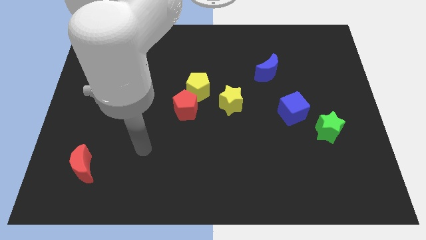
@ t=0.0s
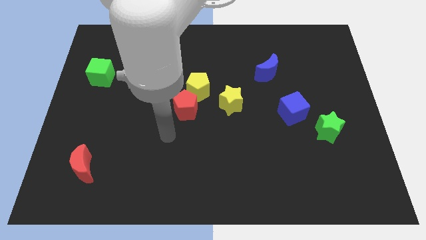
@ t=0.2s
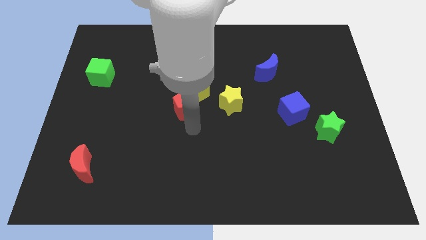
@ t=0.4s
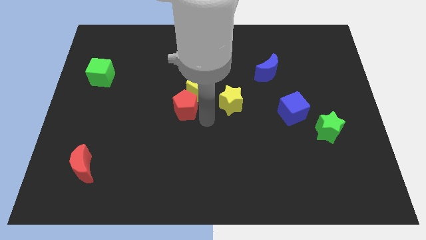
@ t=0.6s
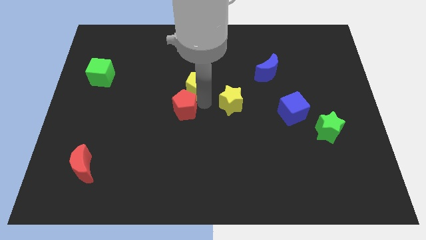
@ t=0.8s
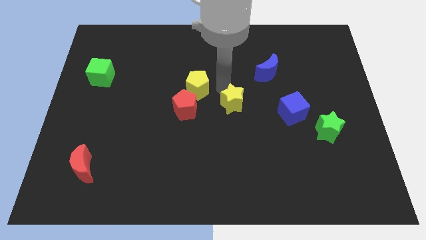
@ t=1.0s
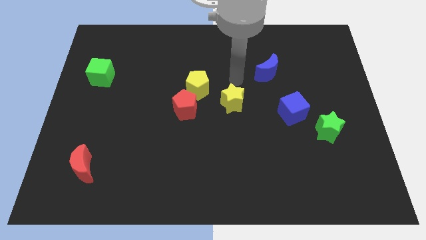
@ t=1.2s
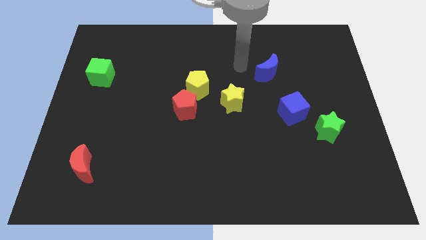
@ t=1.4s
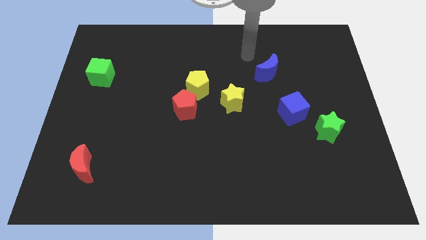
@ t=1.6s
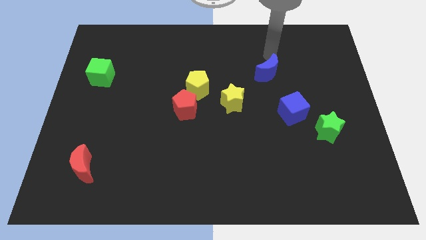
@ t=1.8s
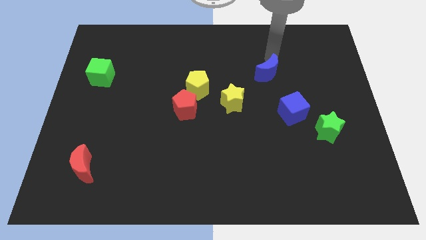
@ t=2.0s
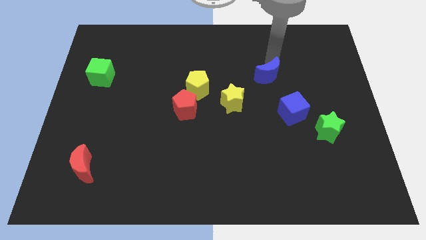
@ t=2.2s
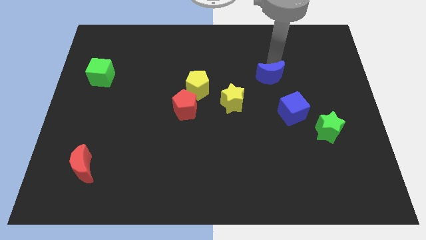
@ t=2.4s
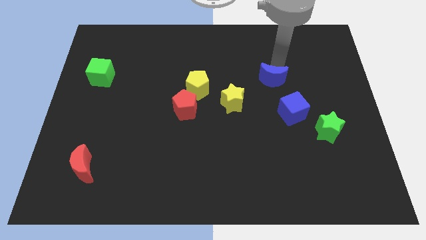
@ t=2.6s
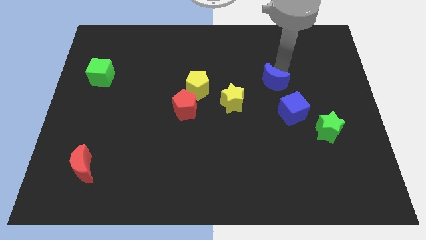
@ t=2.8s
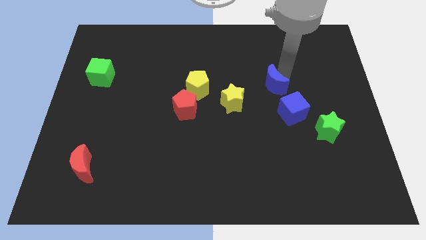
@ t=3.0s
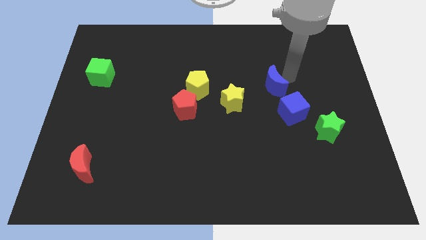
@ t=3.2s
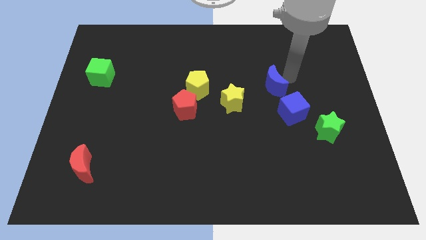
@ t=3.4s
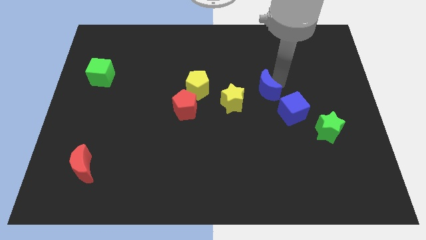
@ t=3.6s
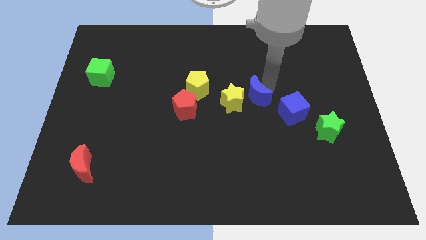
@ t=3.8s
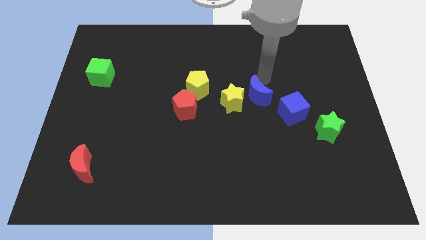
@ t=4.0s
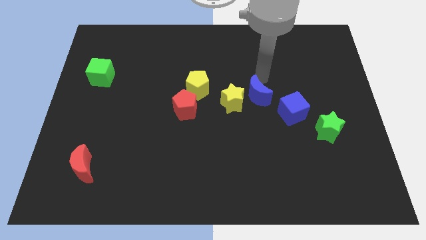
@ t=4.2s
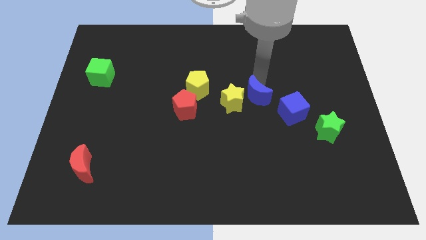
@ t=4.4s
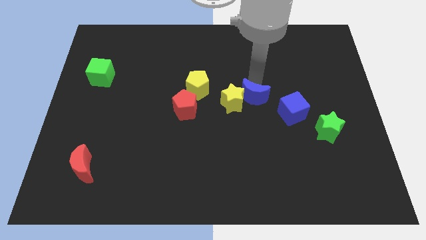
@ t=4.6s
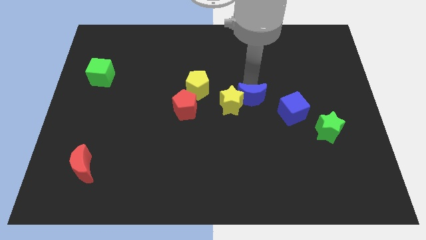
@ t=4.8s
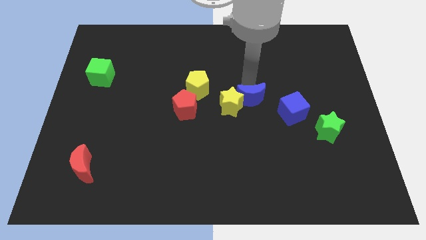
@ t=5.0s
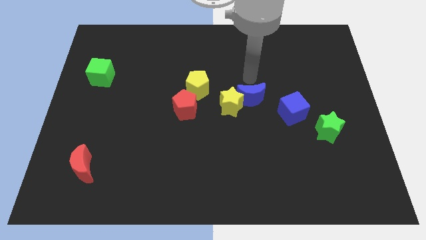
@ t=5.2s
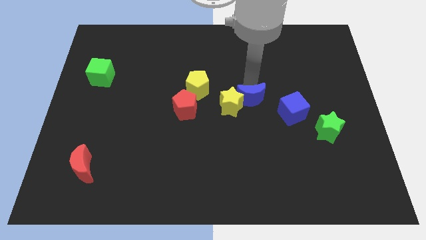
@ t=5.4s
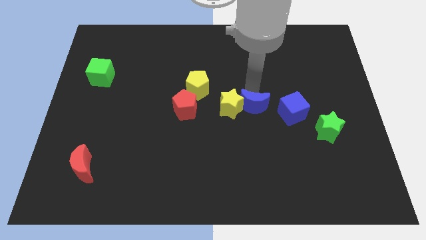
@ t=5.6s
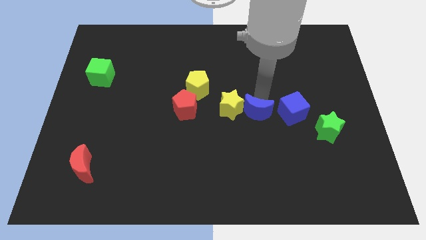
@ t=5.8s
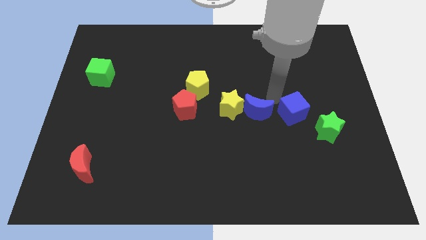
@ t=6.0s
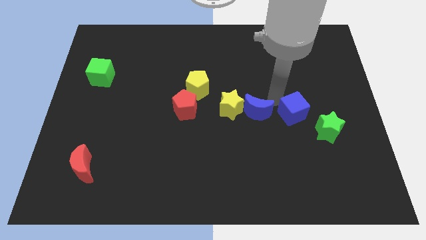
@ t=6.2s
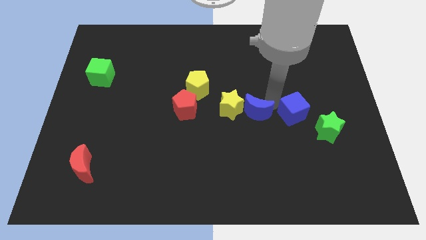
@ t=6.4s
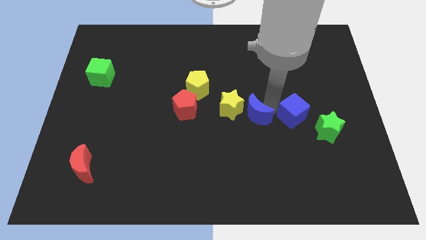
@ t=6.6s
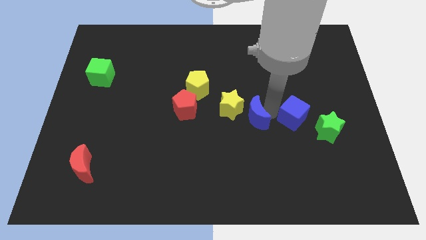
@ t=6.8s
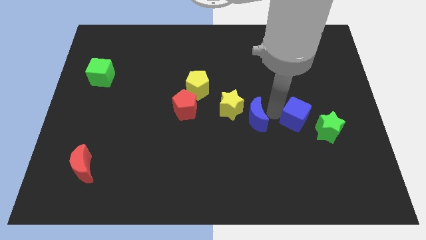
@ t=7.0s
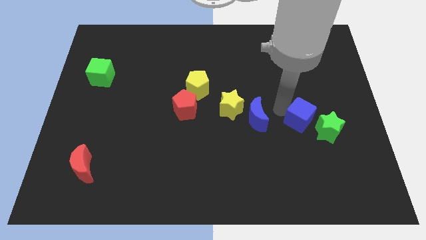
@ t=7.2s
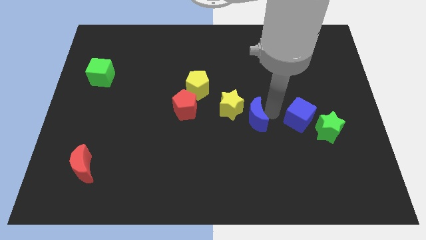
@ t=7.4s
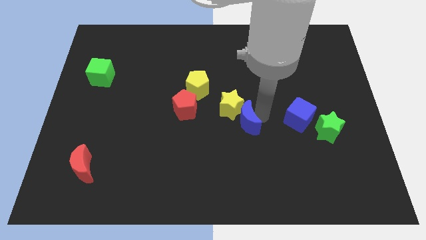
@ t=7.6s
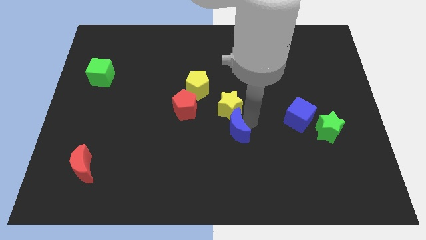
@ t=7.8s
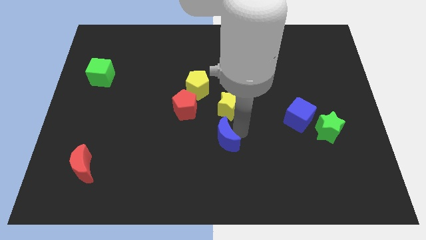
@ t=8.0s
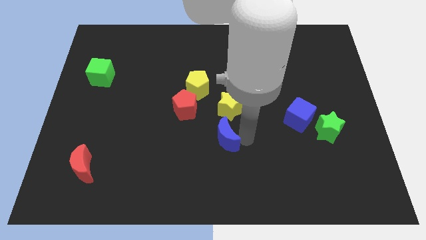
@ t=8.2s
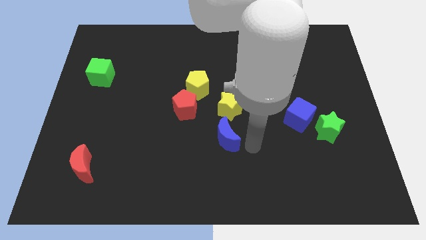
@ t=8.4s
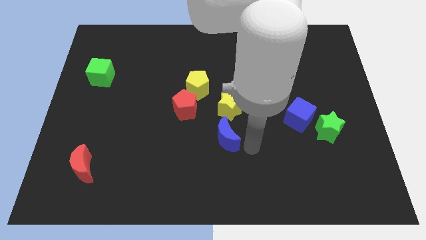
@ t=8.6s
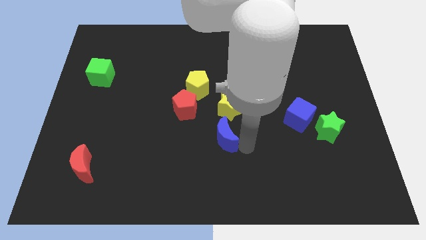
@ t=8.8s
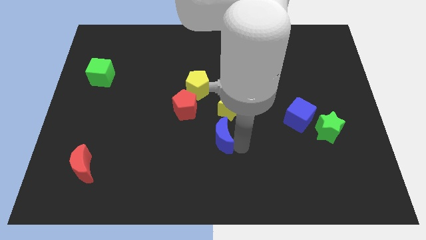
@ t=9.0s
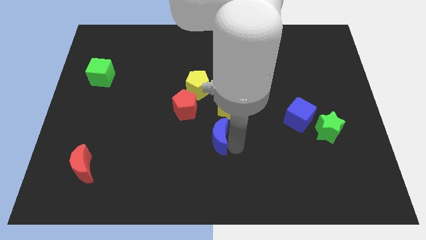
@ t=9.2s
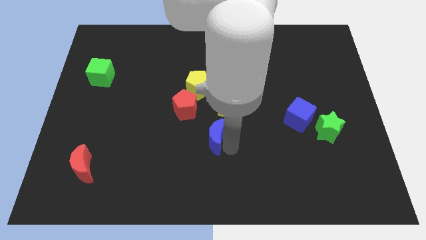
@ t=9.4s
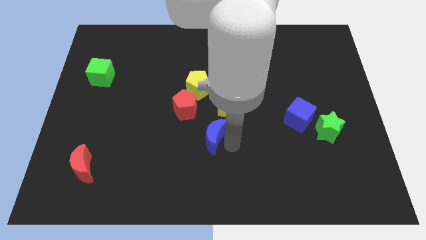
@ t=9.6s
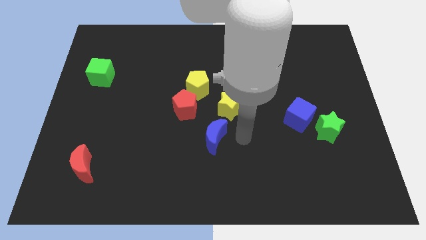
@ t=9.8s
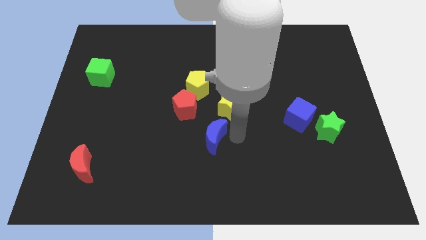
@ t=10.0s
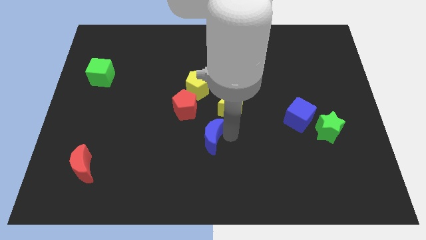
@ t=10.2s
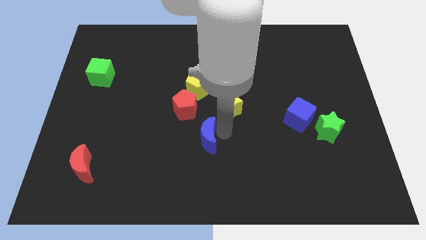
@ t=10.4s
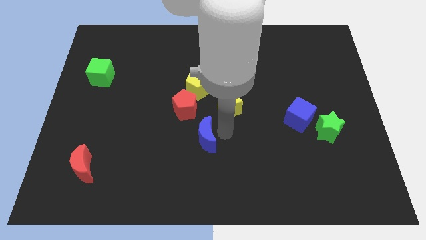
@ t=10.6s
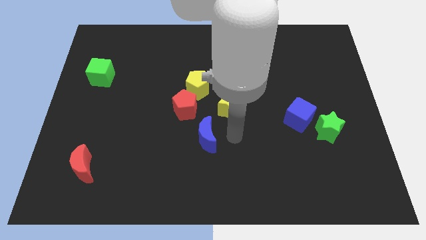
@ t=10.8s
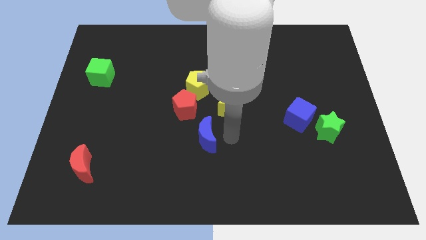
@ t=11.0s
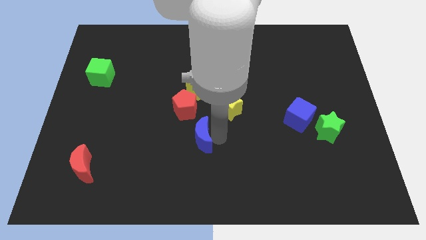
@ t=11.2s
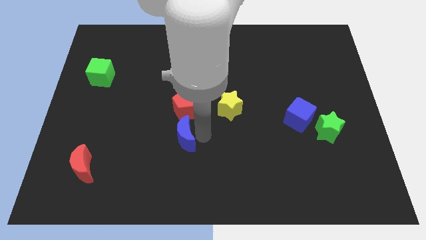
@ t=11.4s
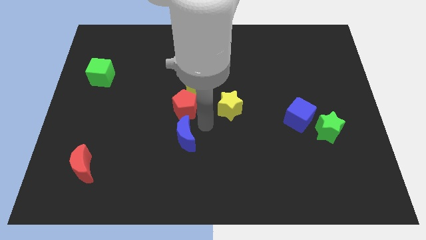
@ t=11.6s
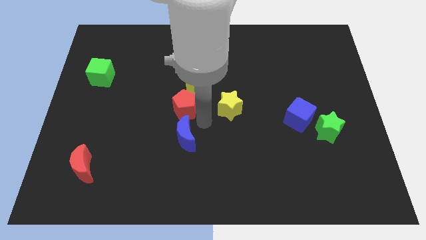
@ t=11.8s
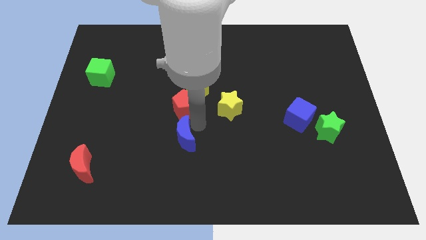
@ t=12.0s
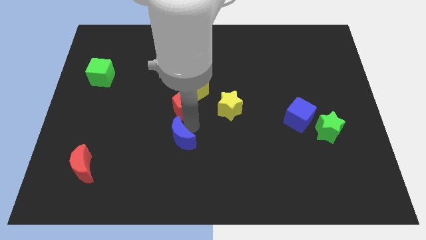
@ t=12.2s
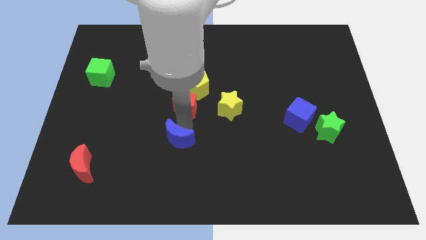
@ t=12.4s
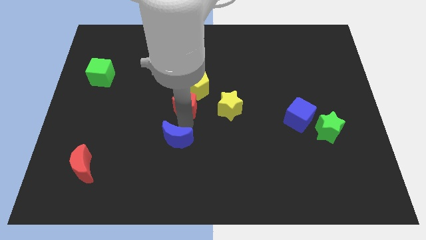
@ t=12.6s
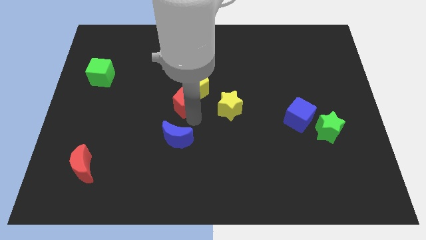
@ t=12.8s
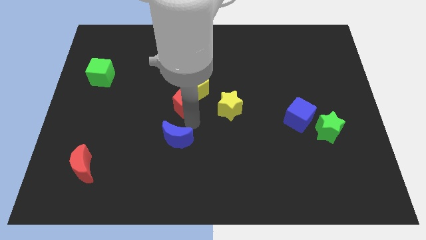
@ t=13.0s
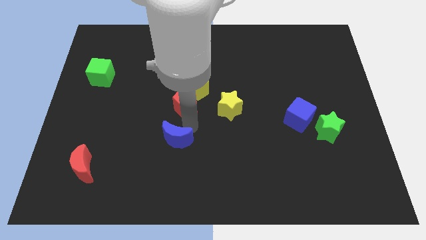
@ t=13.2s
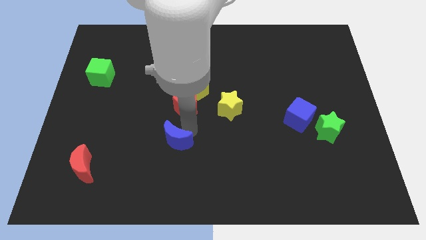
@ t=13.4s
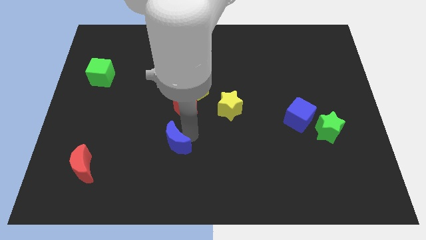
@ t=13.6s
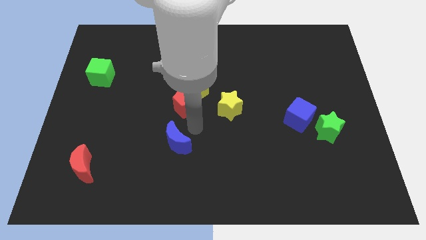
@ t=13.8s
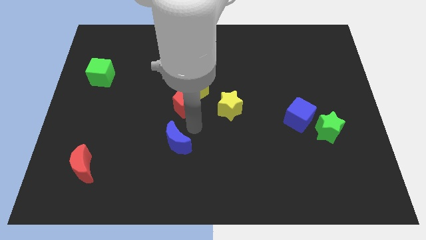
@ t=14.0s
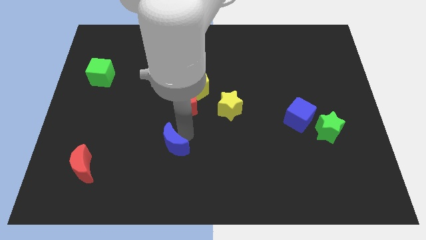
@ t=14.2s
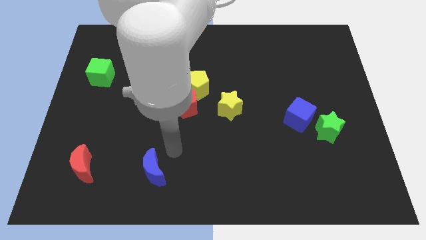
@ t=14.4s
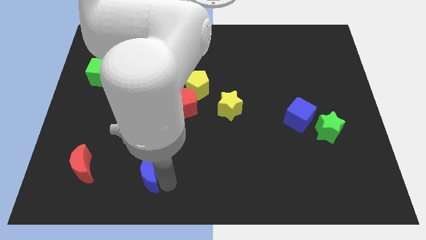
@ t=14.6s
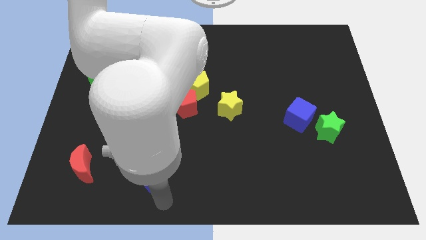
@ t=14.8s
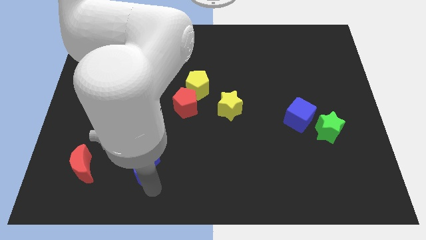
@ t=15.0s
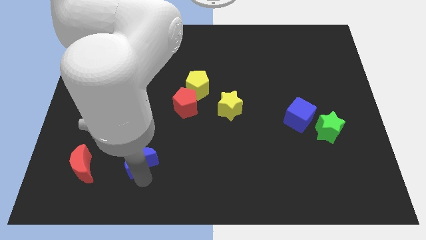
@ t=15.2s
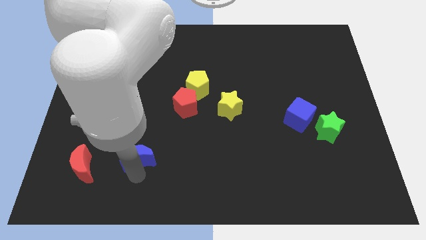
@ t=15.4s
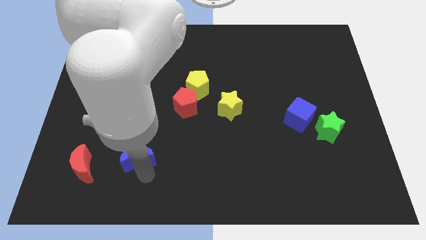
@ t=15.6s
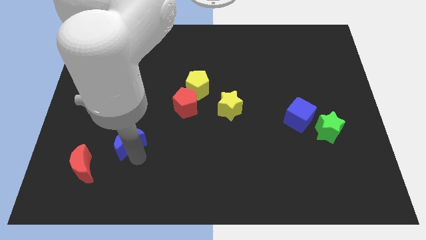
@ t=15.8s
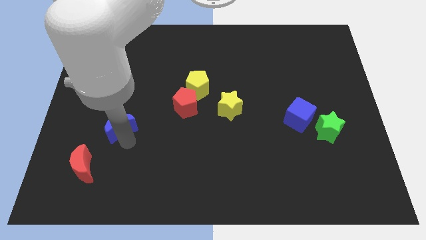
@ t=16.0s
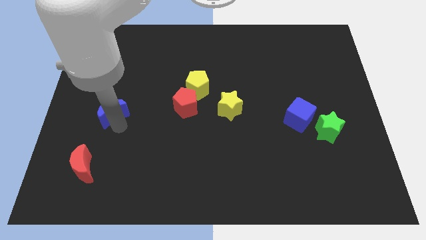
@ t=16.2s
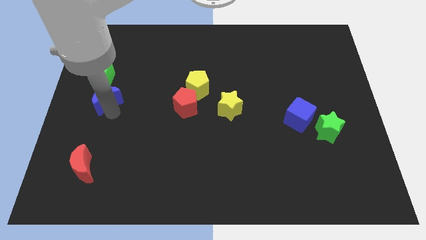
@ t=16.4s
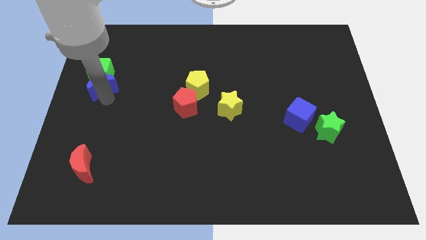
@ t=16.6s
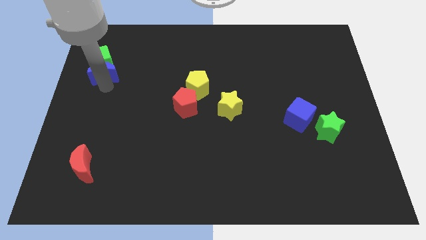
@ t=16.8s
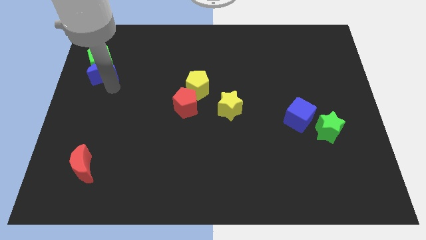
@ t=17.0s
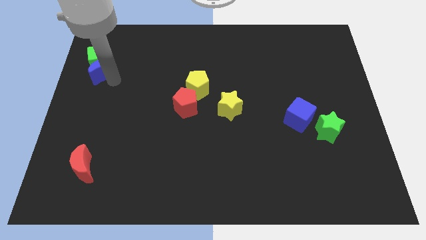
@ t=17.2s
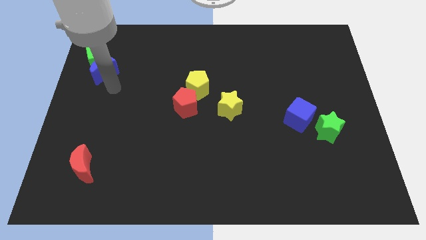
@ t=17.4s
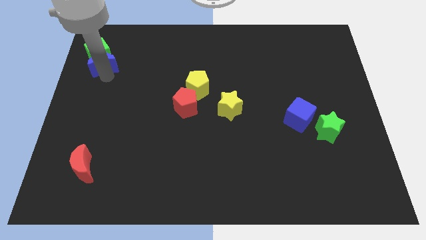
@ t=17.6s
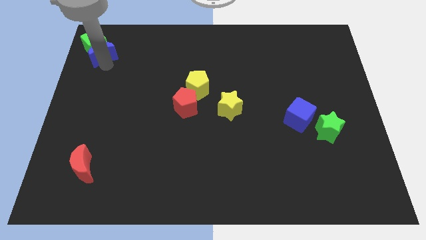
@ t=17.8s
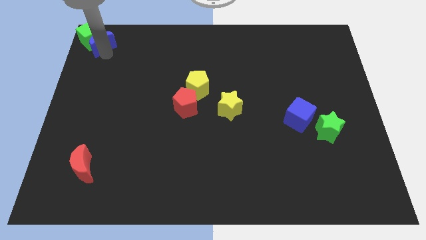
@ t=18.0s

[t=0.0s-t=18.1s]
slide the blue moon to the top left corner
